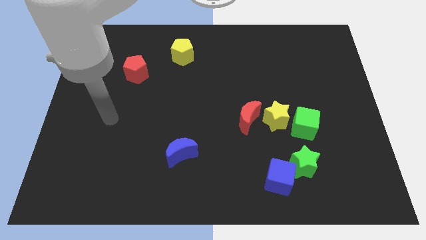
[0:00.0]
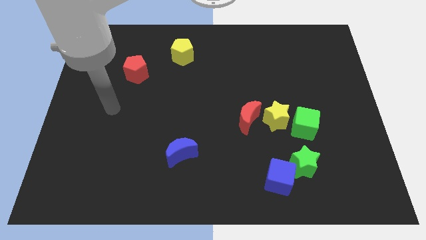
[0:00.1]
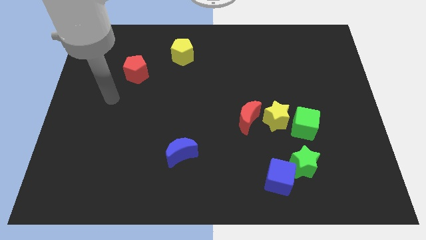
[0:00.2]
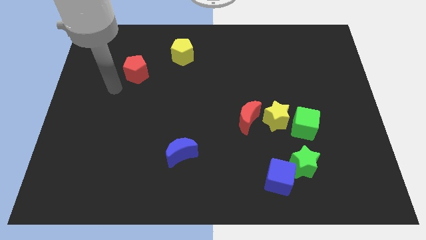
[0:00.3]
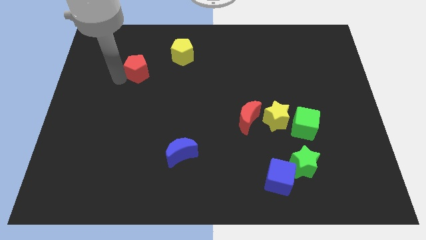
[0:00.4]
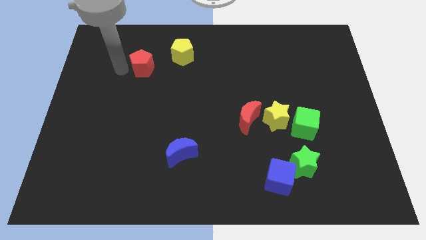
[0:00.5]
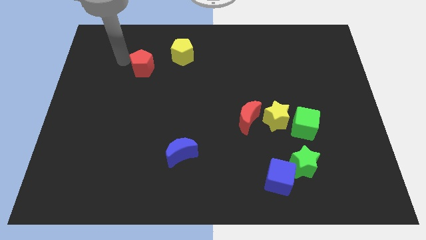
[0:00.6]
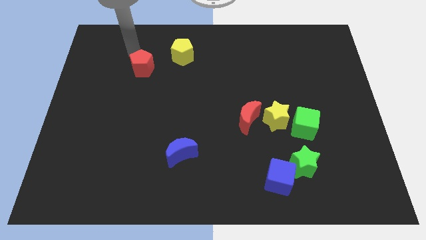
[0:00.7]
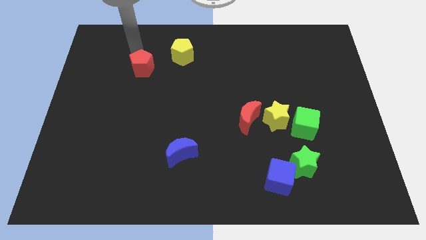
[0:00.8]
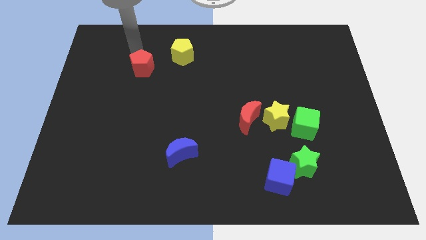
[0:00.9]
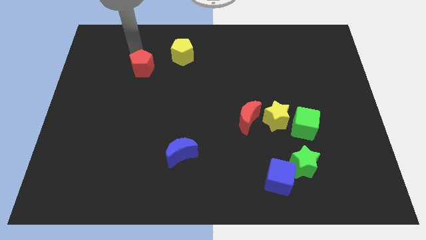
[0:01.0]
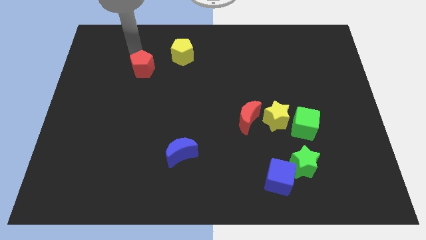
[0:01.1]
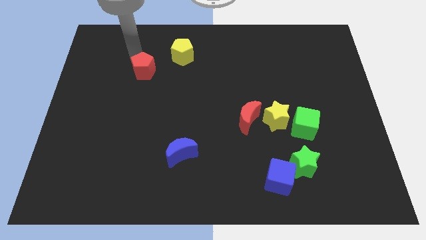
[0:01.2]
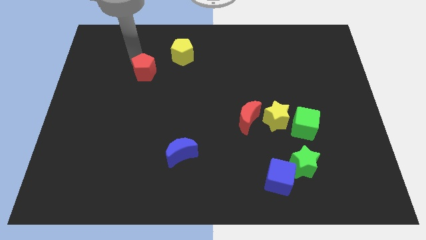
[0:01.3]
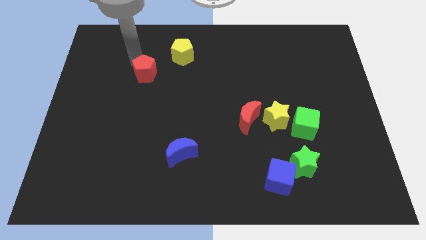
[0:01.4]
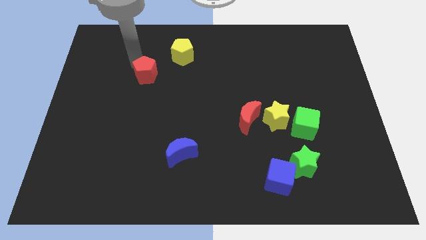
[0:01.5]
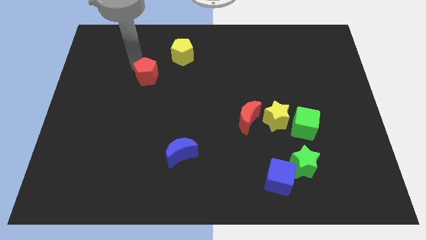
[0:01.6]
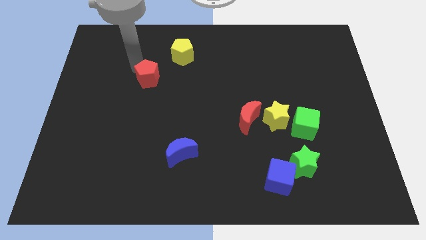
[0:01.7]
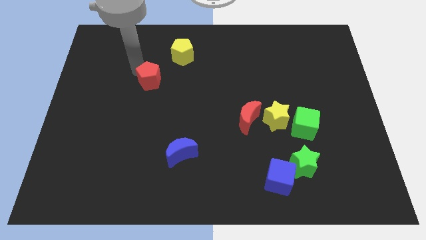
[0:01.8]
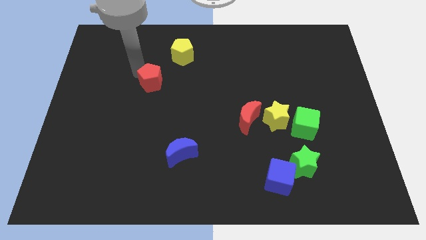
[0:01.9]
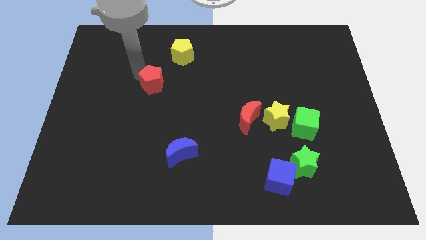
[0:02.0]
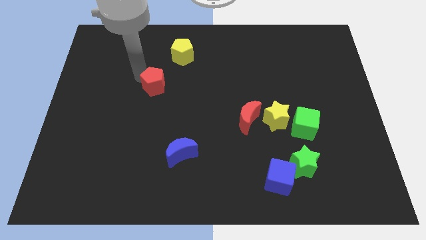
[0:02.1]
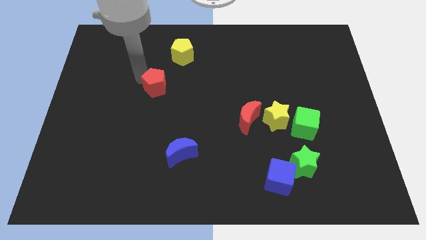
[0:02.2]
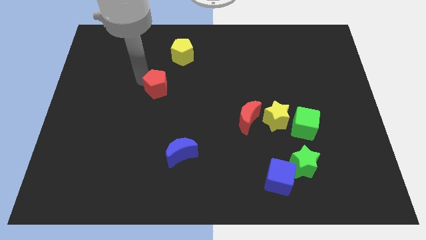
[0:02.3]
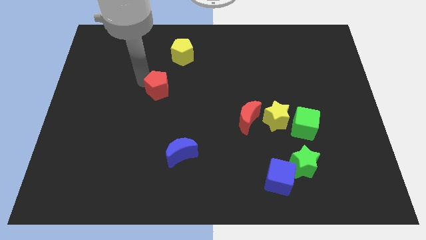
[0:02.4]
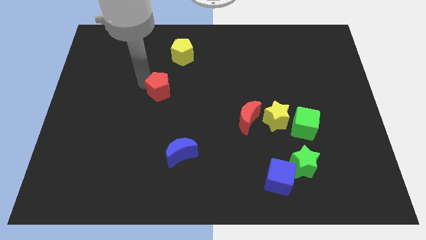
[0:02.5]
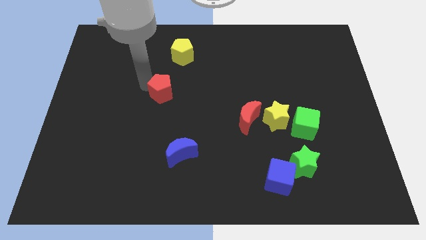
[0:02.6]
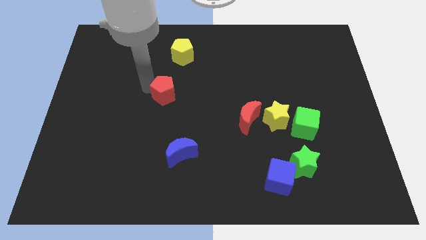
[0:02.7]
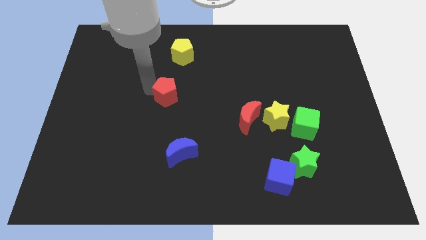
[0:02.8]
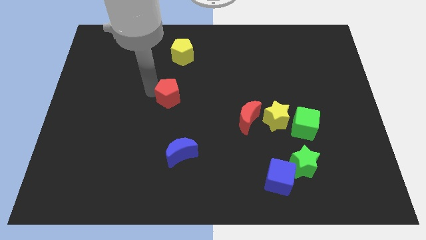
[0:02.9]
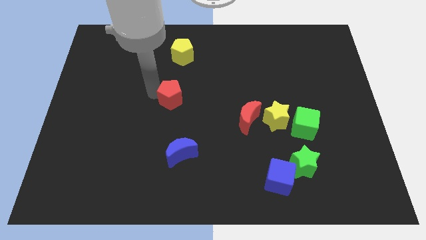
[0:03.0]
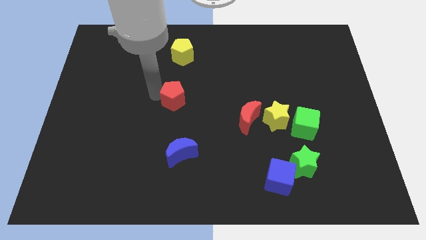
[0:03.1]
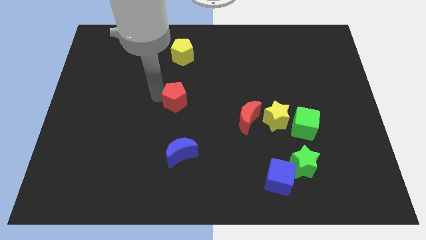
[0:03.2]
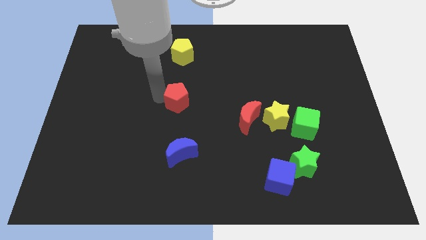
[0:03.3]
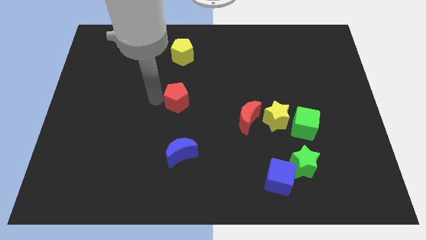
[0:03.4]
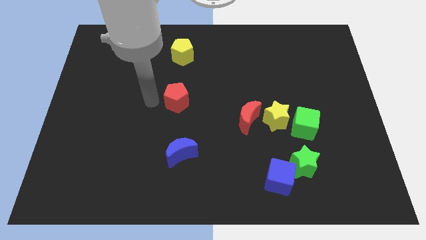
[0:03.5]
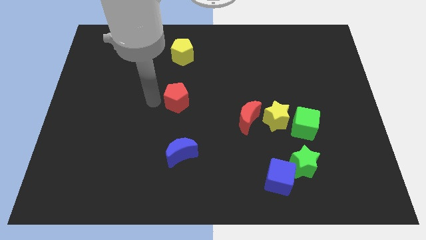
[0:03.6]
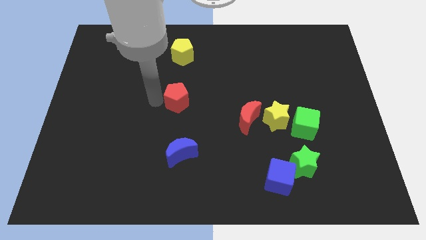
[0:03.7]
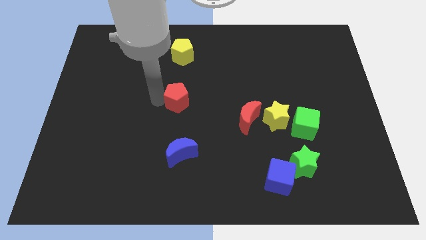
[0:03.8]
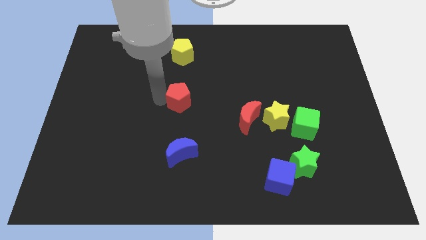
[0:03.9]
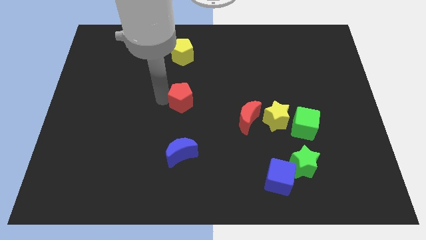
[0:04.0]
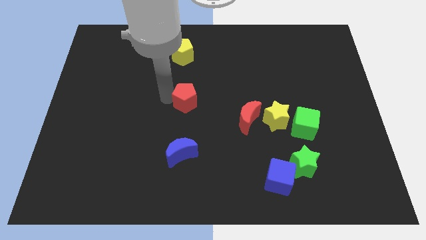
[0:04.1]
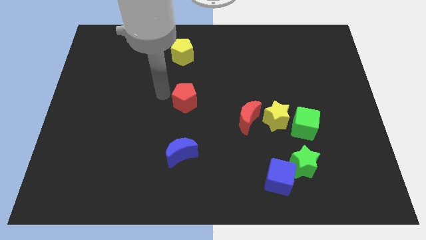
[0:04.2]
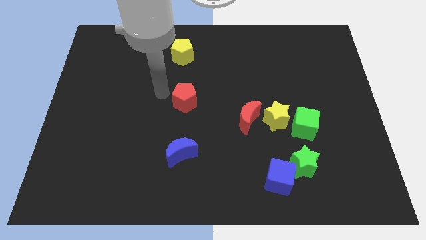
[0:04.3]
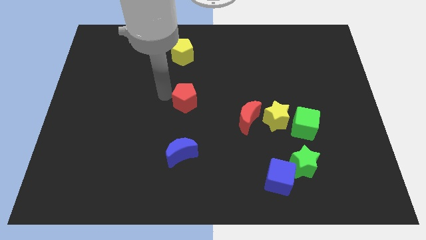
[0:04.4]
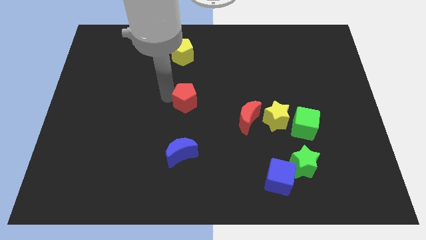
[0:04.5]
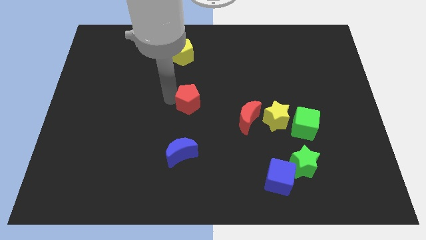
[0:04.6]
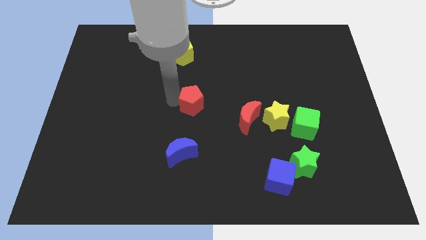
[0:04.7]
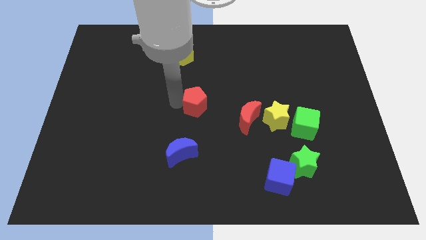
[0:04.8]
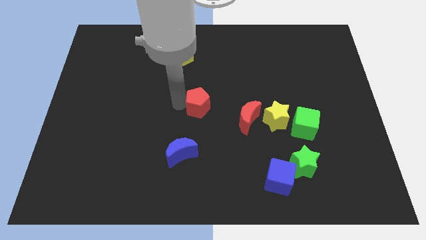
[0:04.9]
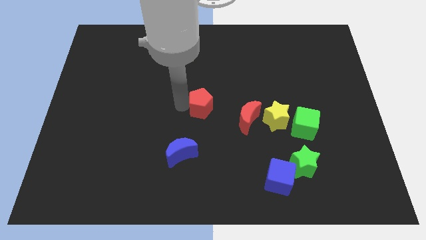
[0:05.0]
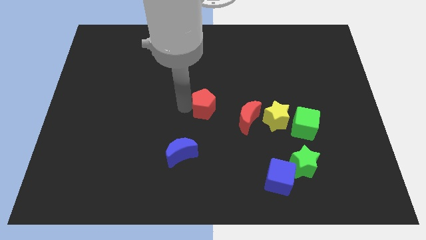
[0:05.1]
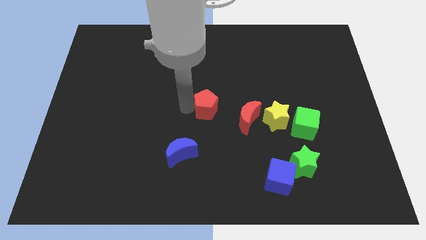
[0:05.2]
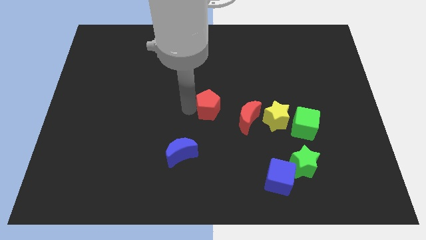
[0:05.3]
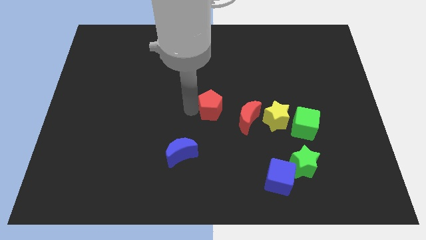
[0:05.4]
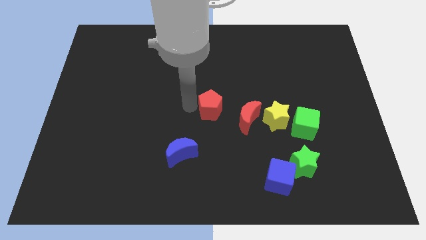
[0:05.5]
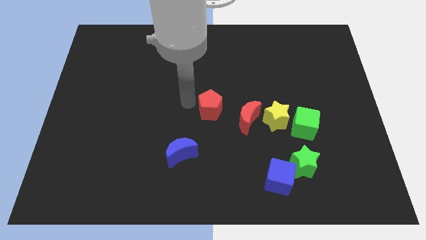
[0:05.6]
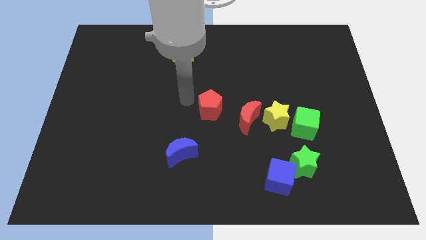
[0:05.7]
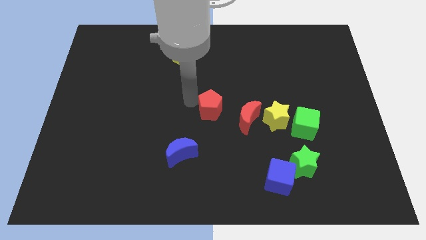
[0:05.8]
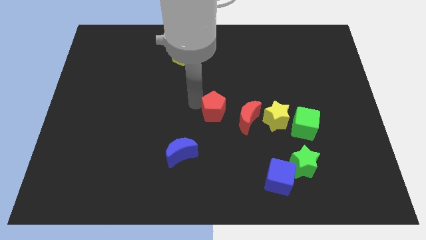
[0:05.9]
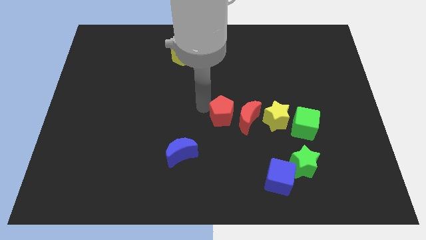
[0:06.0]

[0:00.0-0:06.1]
slide the red pentagon close to the red moon

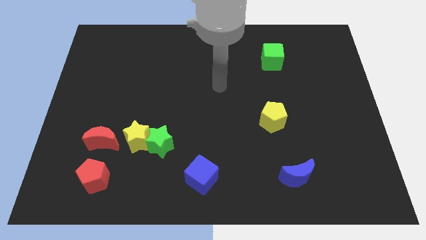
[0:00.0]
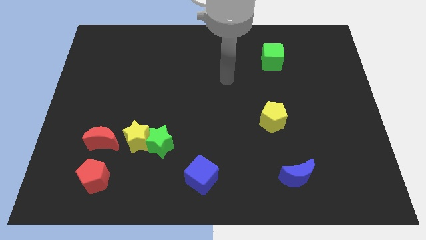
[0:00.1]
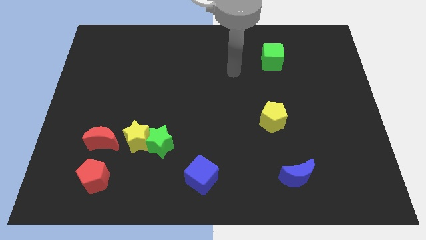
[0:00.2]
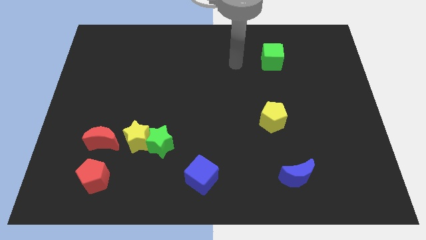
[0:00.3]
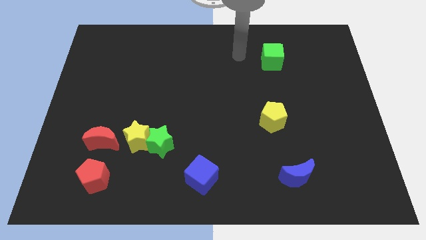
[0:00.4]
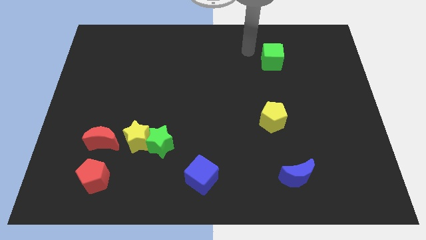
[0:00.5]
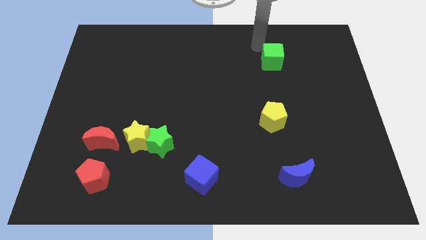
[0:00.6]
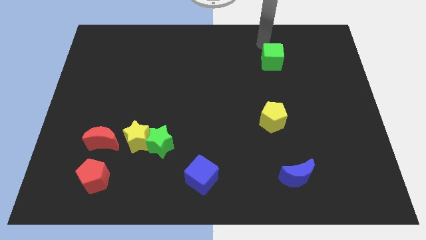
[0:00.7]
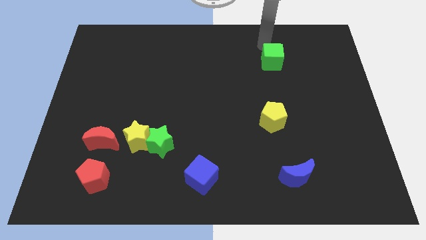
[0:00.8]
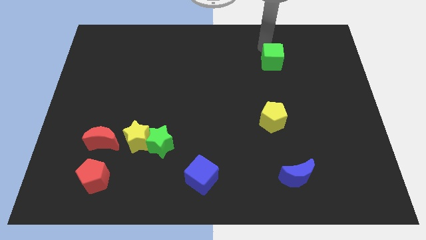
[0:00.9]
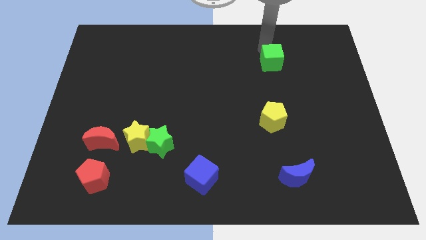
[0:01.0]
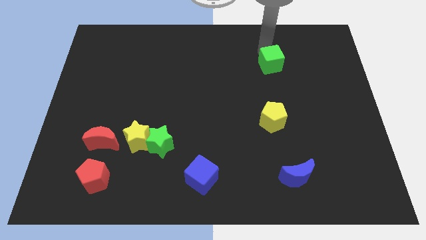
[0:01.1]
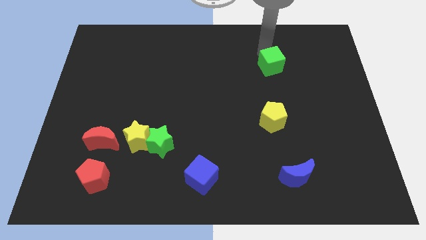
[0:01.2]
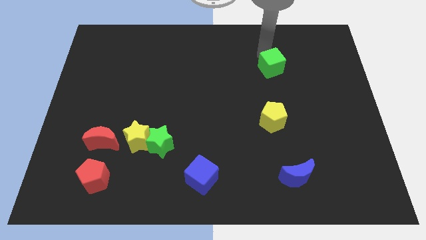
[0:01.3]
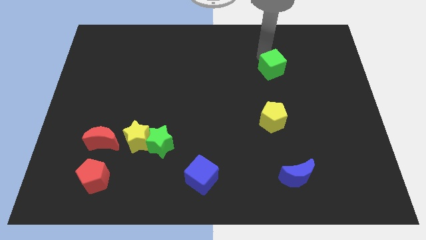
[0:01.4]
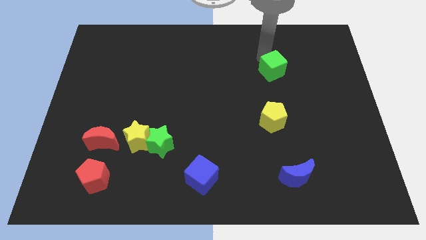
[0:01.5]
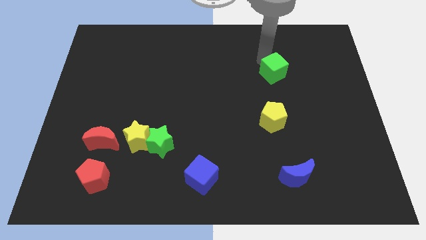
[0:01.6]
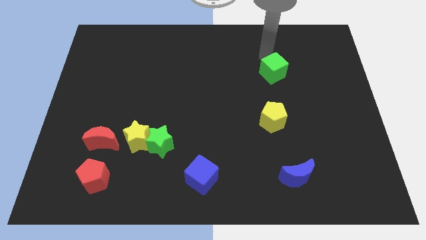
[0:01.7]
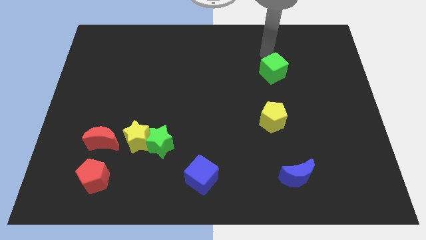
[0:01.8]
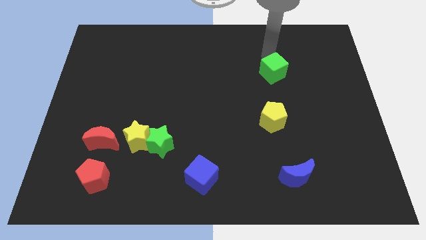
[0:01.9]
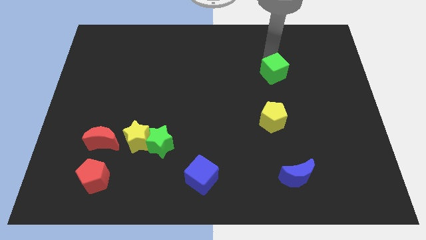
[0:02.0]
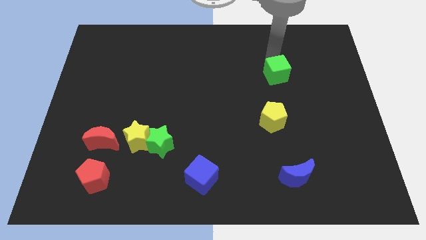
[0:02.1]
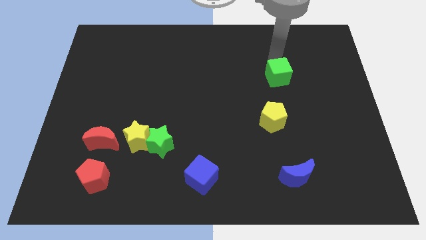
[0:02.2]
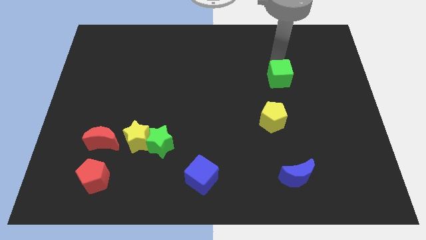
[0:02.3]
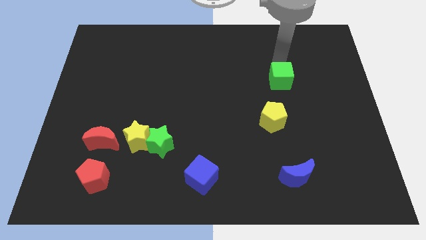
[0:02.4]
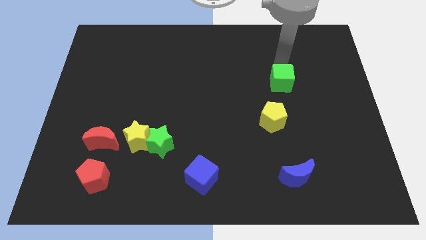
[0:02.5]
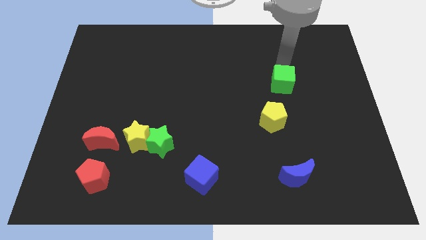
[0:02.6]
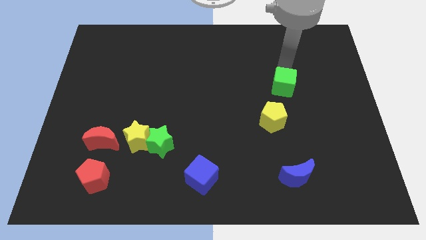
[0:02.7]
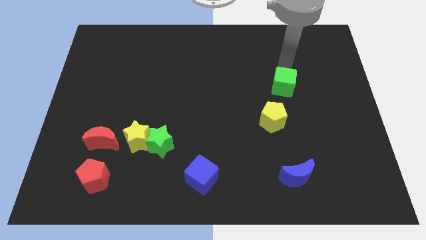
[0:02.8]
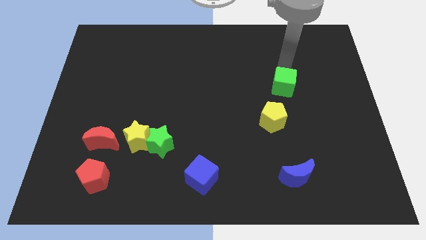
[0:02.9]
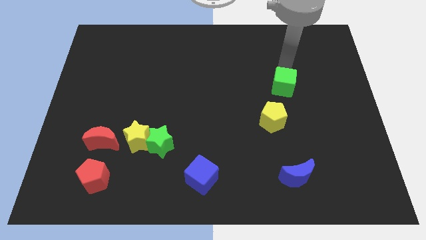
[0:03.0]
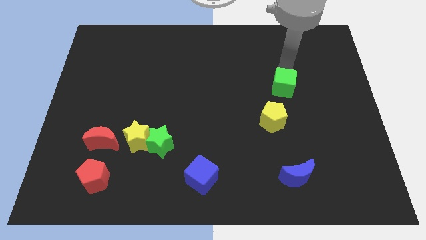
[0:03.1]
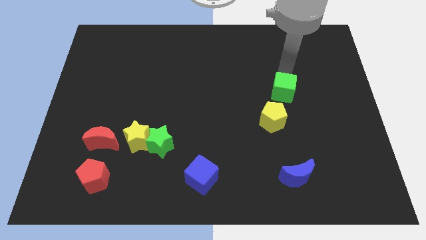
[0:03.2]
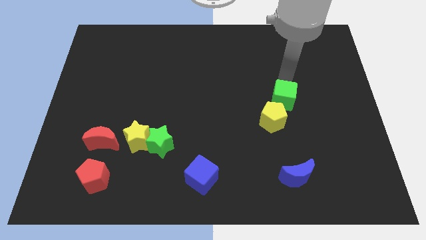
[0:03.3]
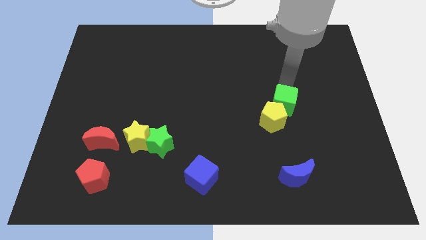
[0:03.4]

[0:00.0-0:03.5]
move the green cube to the yellow pentagon
